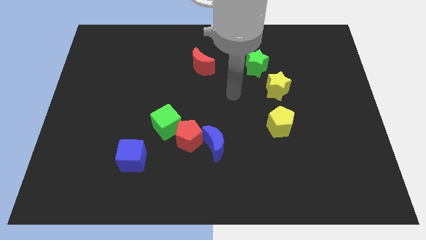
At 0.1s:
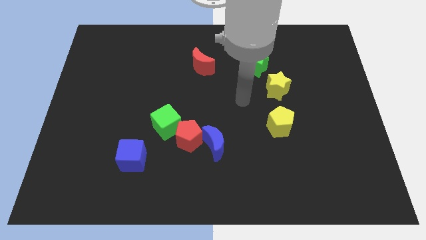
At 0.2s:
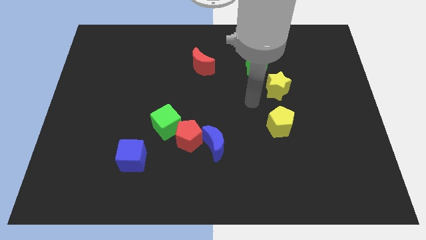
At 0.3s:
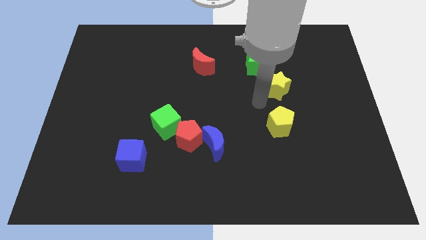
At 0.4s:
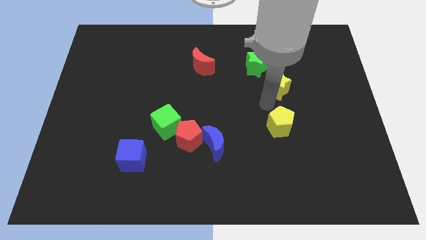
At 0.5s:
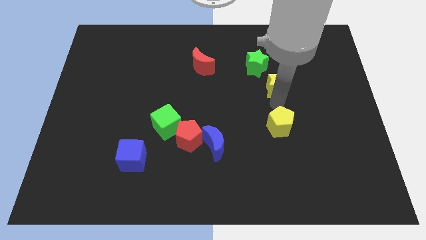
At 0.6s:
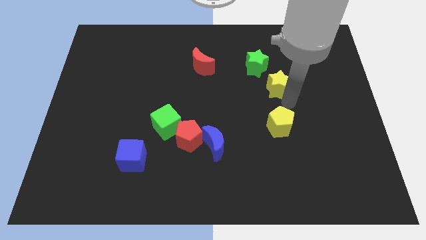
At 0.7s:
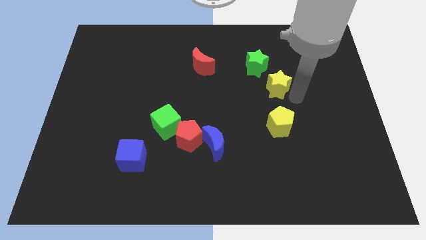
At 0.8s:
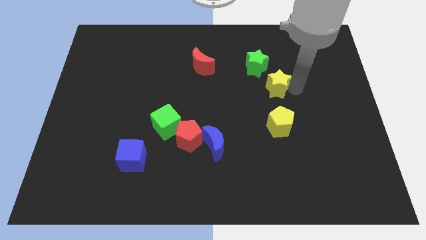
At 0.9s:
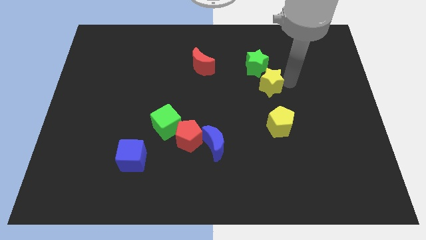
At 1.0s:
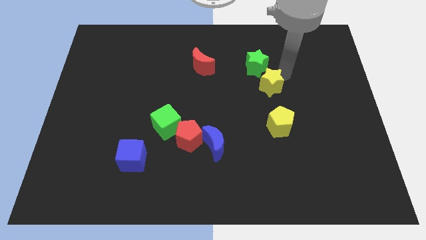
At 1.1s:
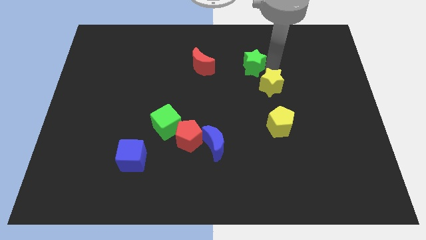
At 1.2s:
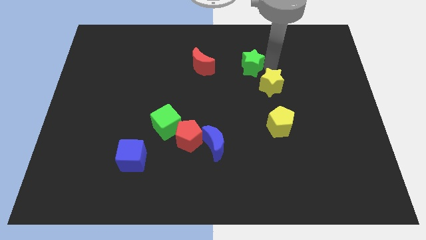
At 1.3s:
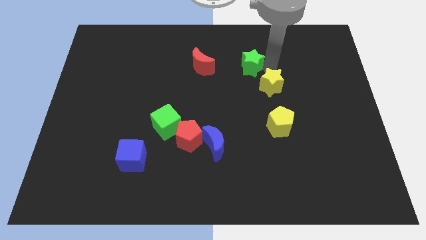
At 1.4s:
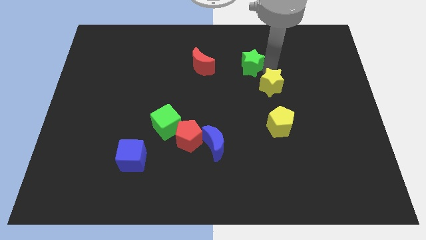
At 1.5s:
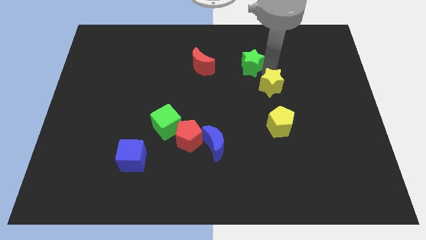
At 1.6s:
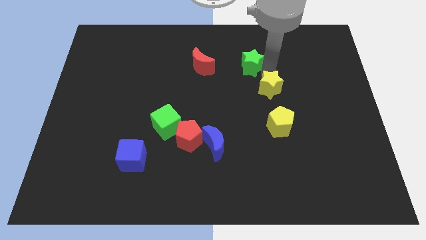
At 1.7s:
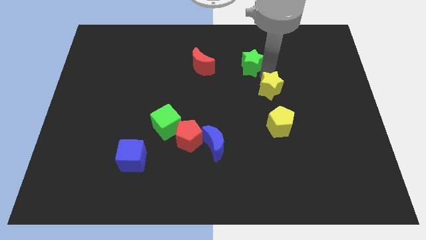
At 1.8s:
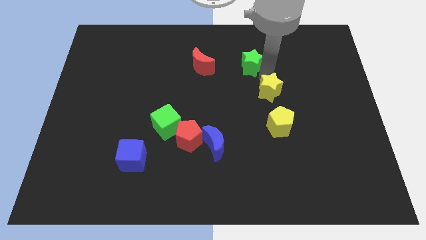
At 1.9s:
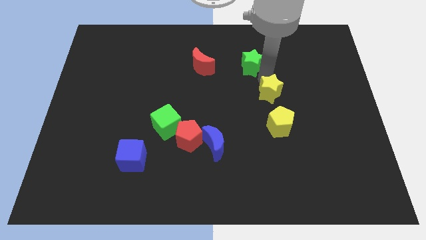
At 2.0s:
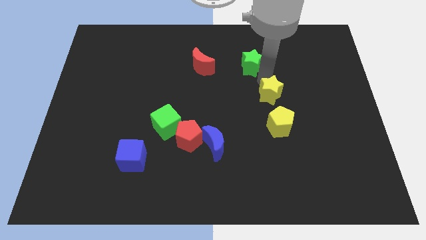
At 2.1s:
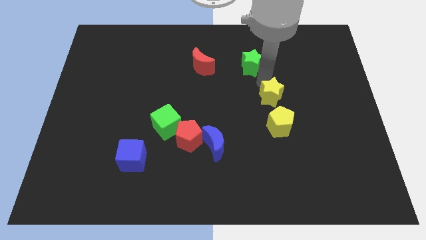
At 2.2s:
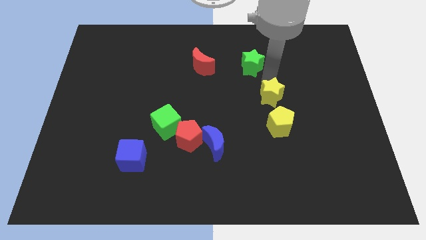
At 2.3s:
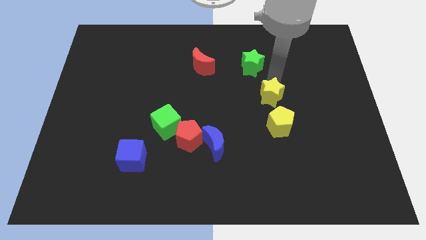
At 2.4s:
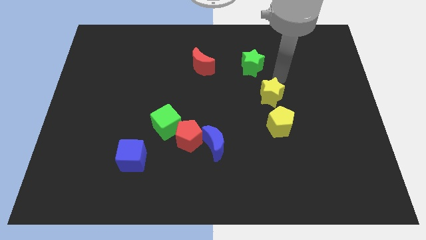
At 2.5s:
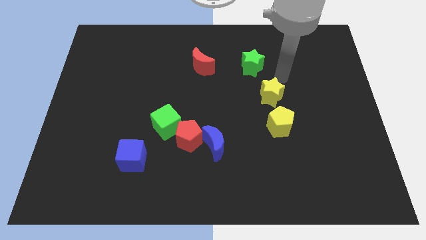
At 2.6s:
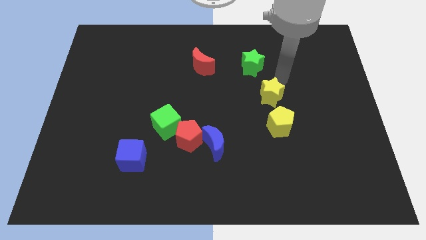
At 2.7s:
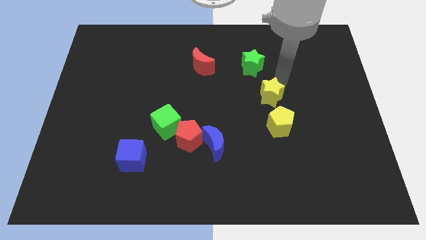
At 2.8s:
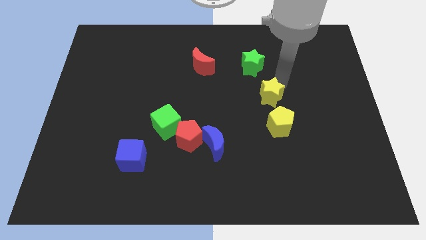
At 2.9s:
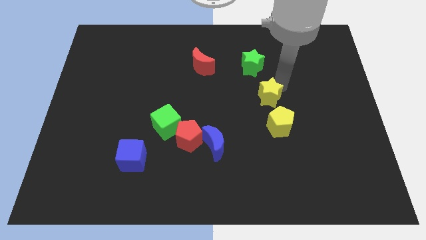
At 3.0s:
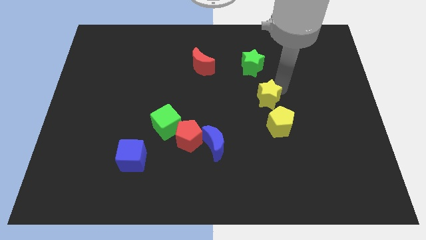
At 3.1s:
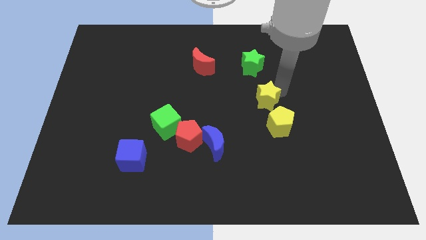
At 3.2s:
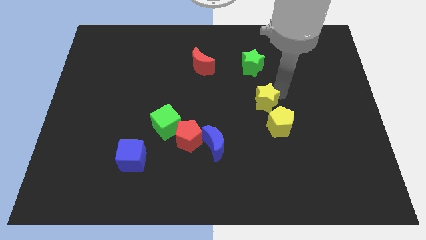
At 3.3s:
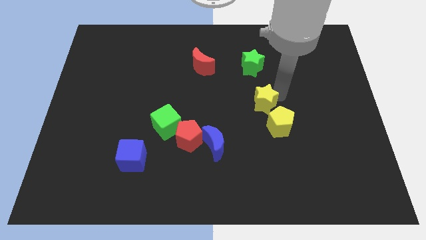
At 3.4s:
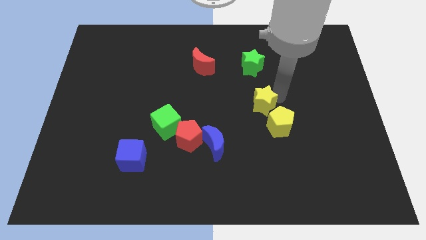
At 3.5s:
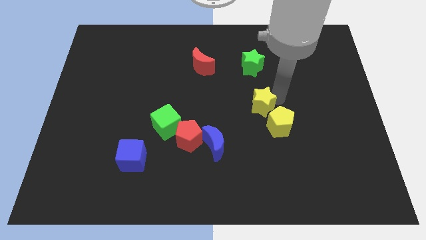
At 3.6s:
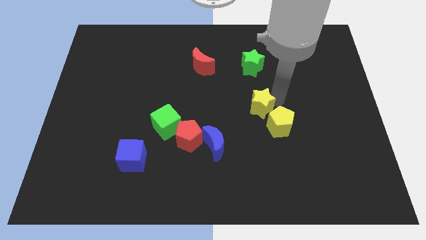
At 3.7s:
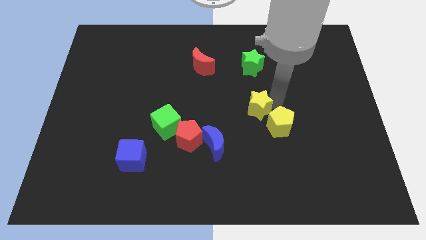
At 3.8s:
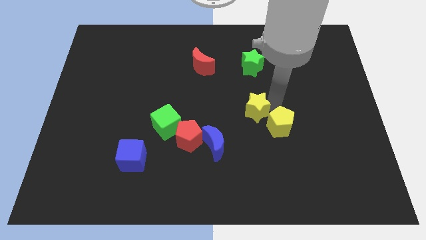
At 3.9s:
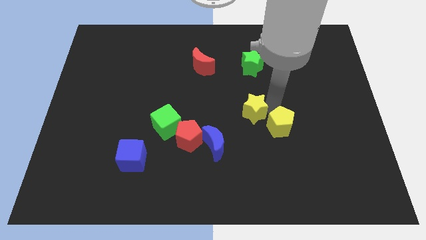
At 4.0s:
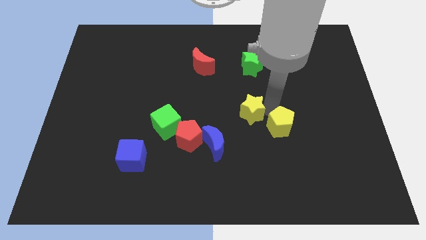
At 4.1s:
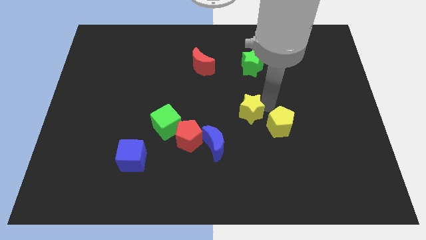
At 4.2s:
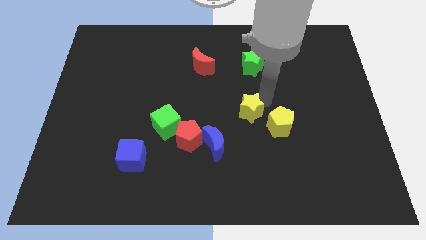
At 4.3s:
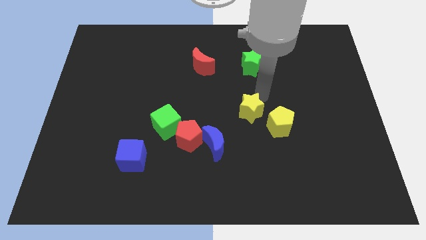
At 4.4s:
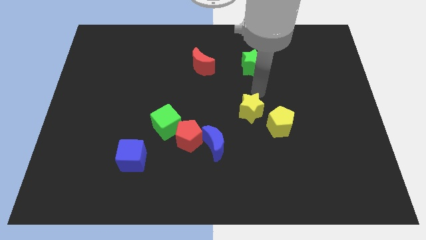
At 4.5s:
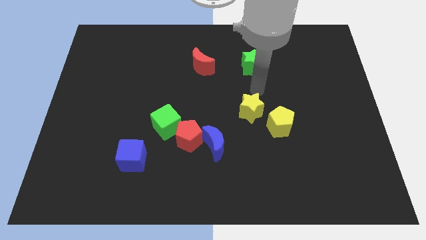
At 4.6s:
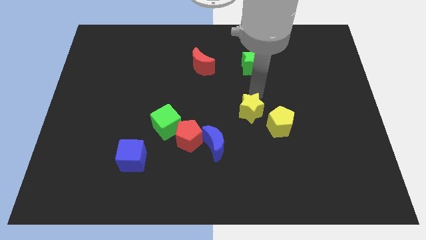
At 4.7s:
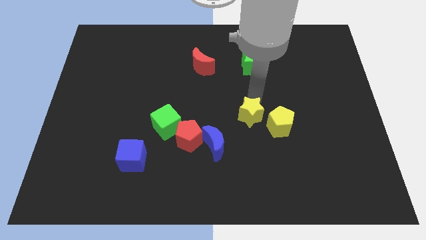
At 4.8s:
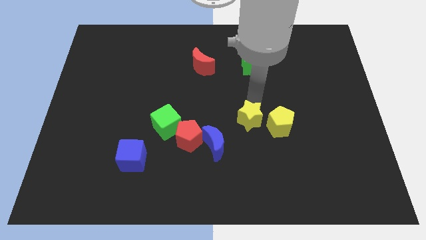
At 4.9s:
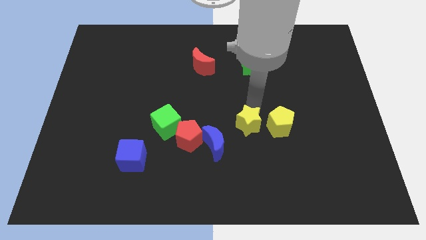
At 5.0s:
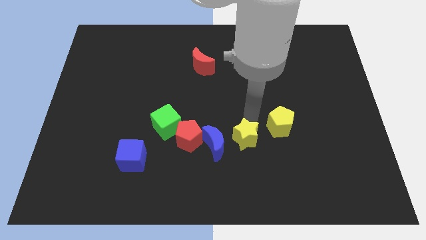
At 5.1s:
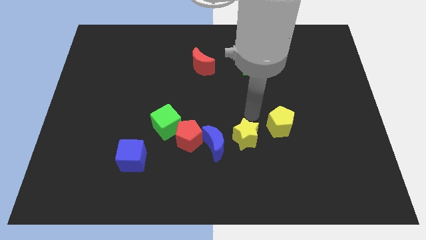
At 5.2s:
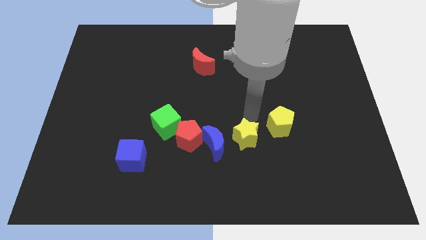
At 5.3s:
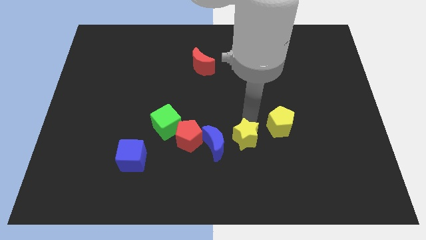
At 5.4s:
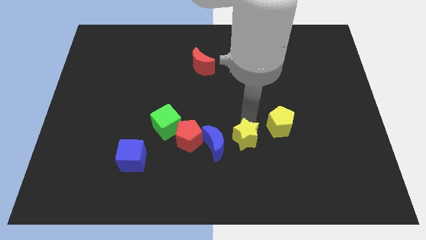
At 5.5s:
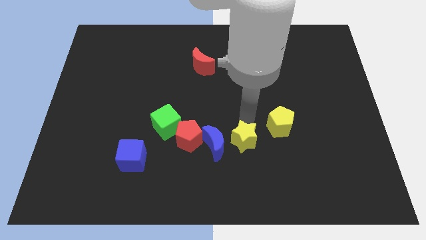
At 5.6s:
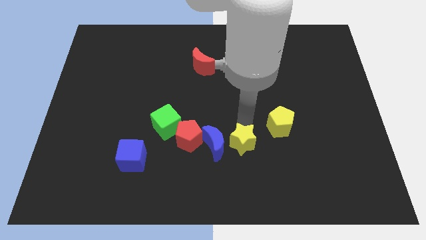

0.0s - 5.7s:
put the yellow star to the bottom right of the blue moon

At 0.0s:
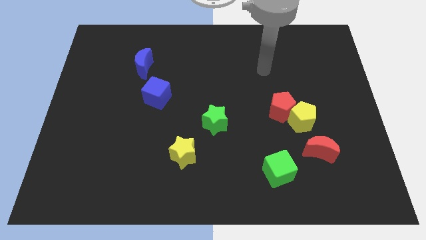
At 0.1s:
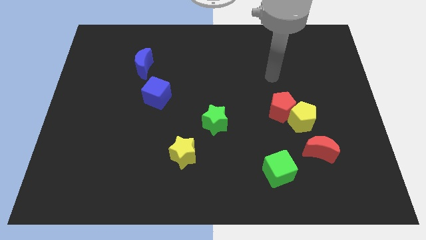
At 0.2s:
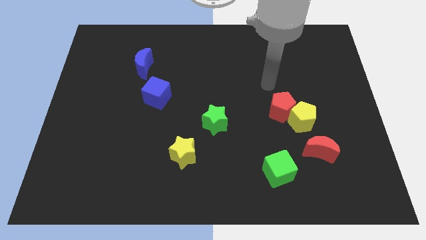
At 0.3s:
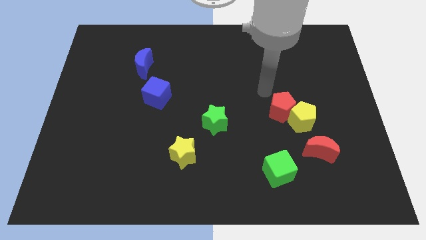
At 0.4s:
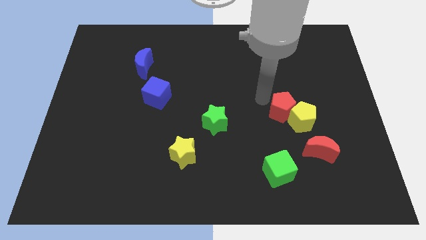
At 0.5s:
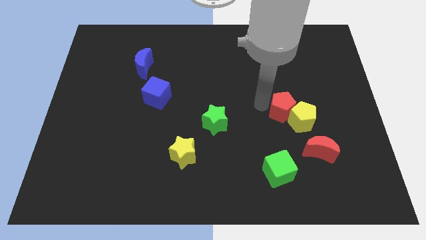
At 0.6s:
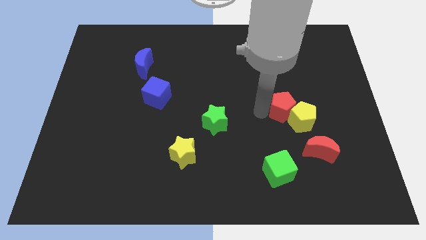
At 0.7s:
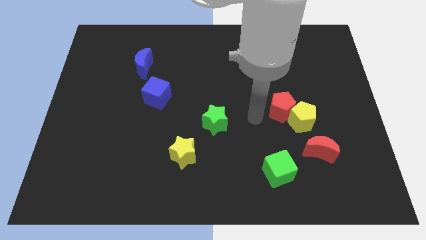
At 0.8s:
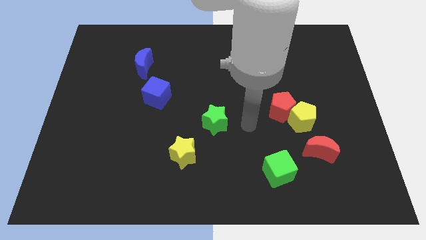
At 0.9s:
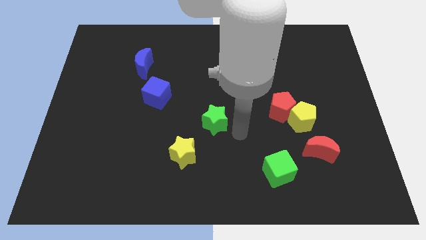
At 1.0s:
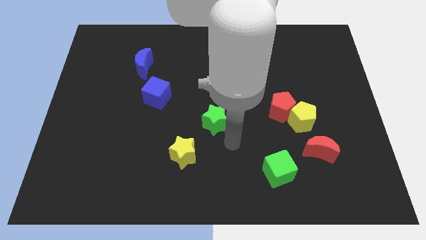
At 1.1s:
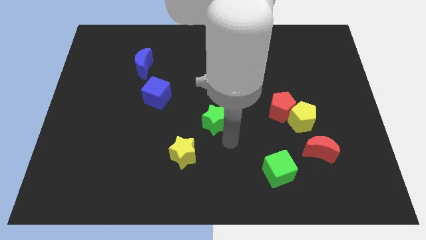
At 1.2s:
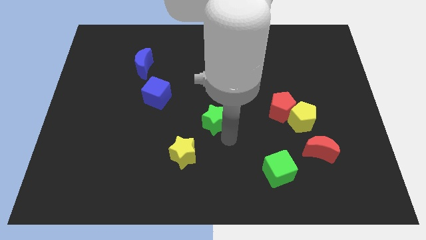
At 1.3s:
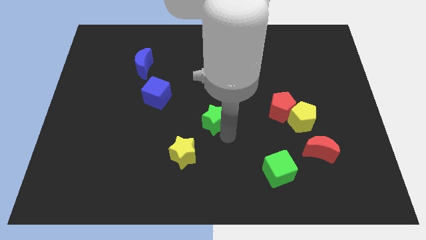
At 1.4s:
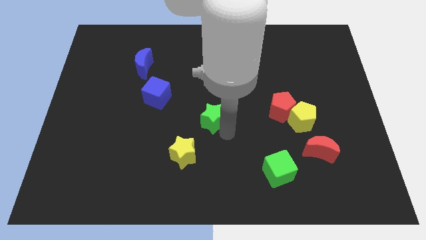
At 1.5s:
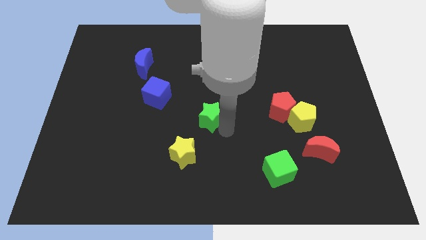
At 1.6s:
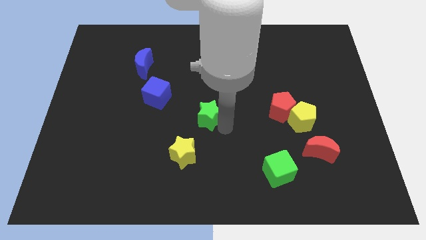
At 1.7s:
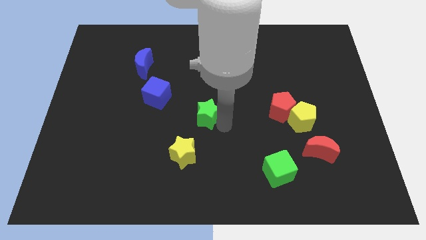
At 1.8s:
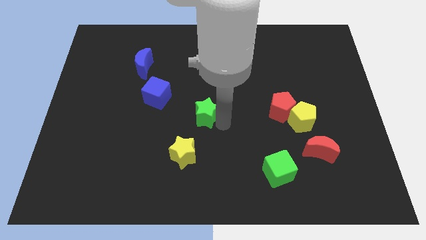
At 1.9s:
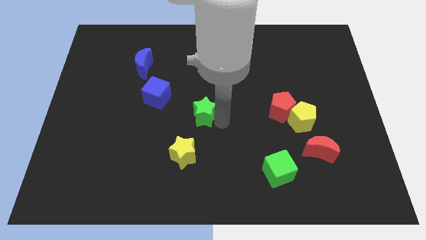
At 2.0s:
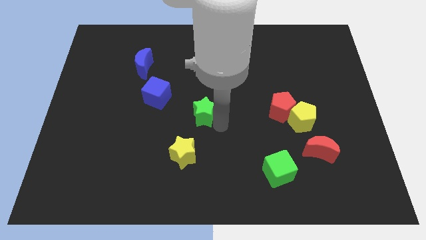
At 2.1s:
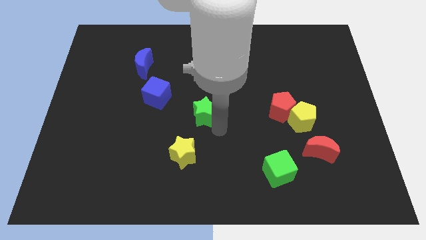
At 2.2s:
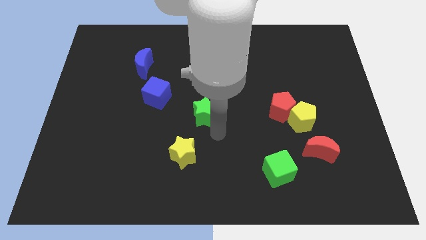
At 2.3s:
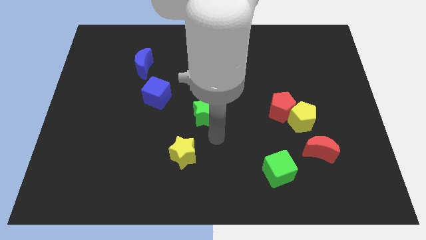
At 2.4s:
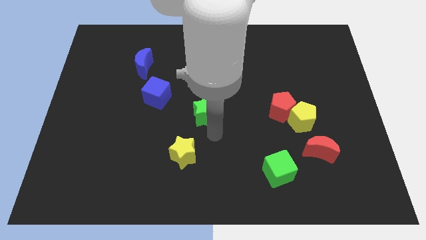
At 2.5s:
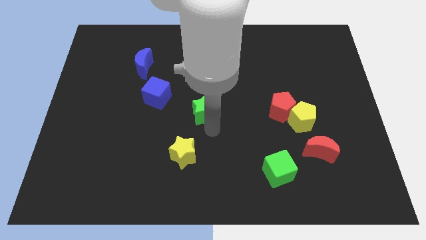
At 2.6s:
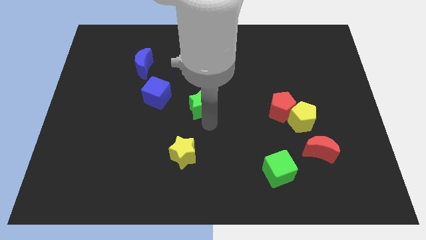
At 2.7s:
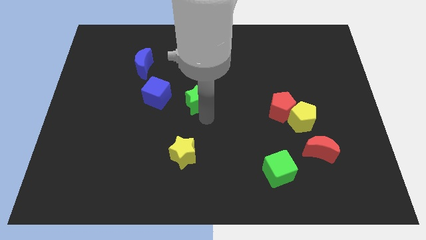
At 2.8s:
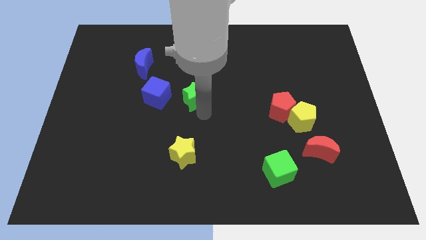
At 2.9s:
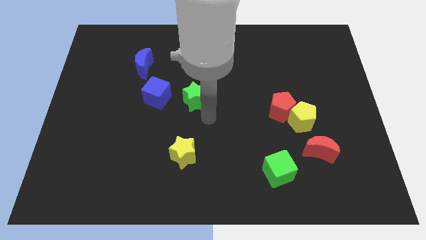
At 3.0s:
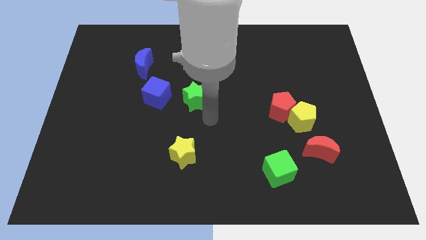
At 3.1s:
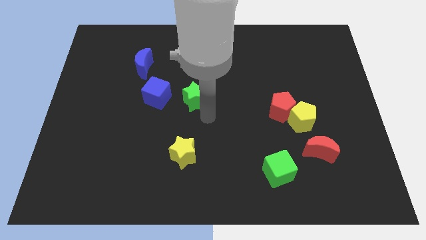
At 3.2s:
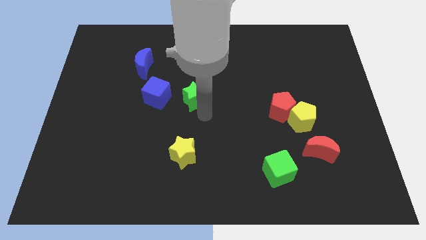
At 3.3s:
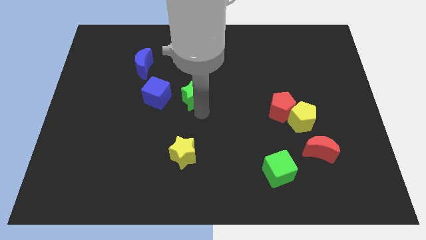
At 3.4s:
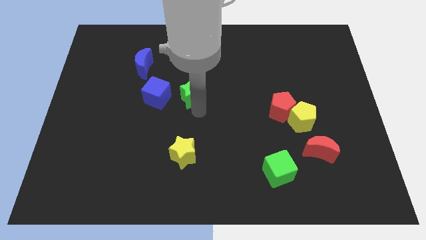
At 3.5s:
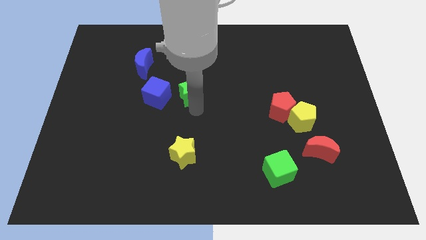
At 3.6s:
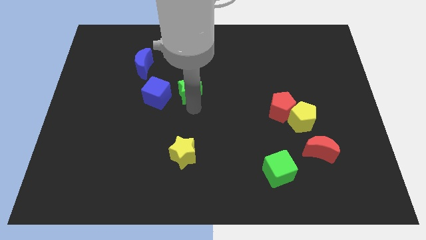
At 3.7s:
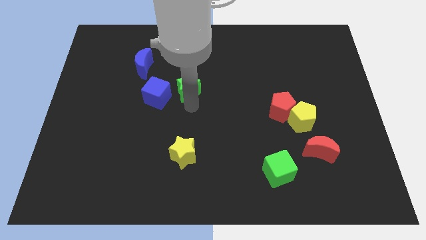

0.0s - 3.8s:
put the green star to the top right of the blue cube
